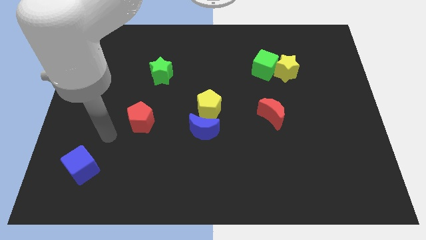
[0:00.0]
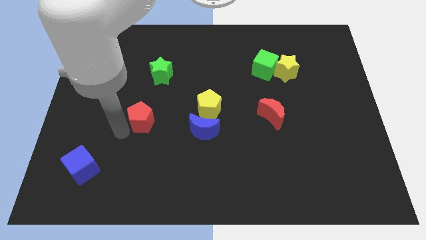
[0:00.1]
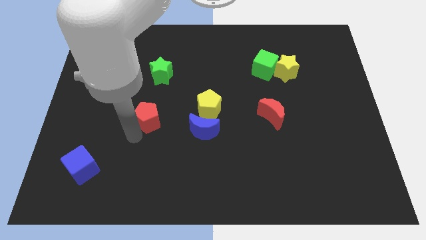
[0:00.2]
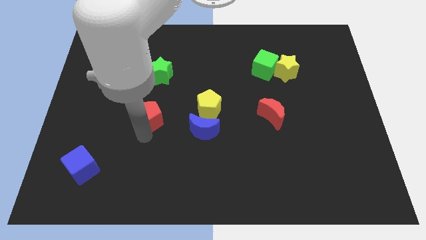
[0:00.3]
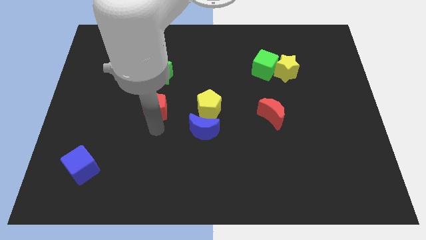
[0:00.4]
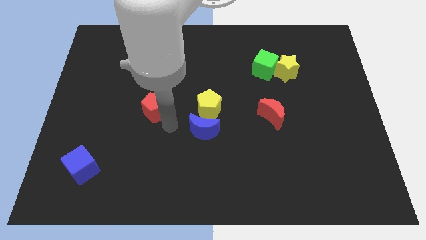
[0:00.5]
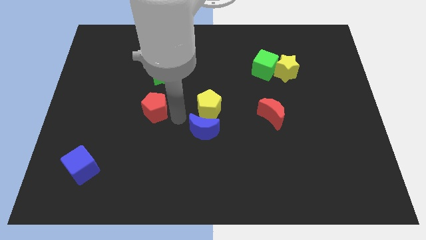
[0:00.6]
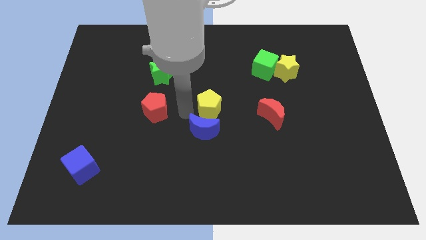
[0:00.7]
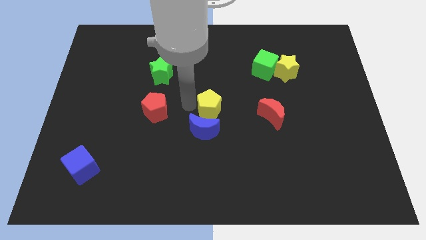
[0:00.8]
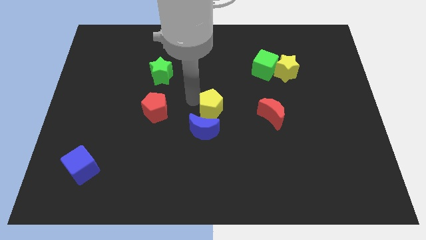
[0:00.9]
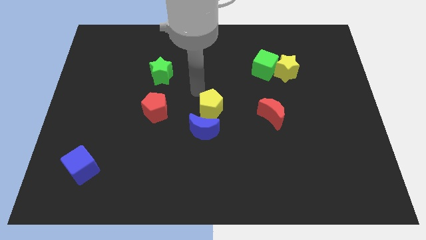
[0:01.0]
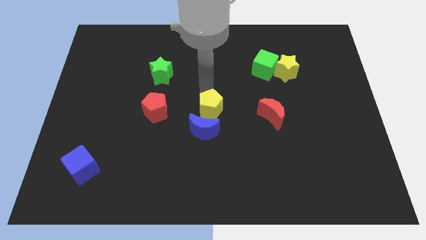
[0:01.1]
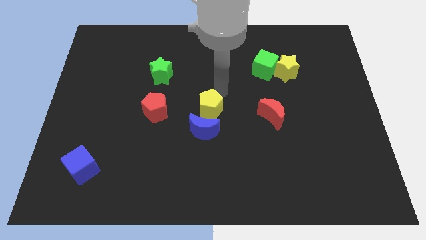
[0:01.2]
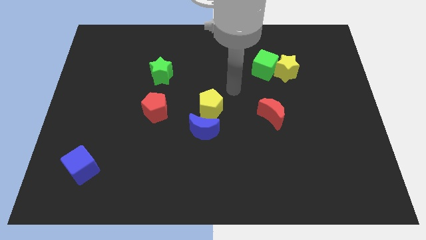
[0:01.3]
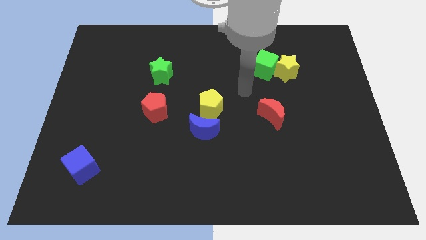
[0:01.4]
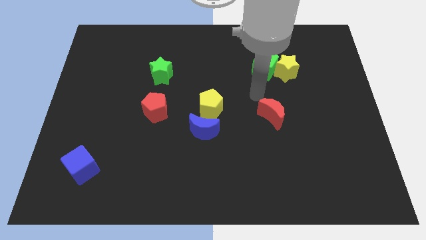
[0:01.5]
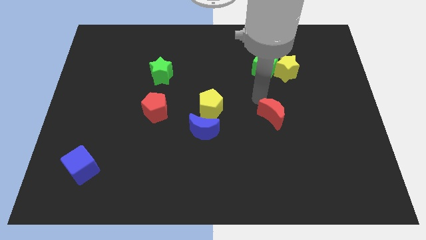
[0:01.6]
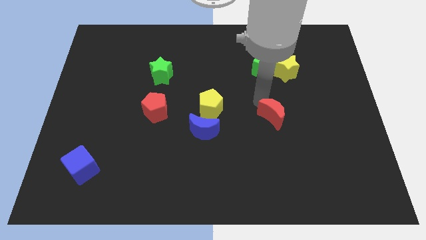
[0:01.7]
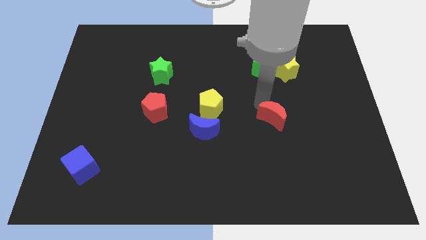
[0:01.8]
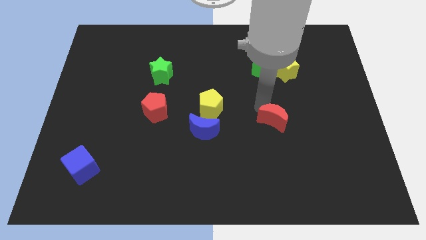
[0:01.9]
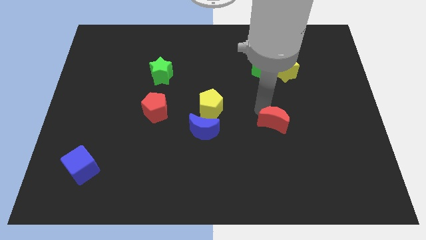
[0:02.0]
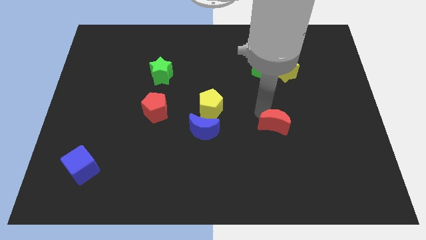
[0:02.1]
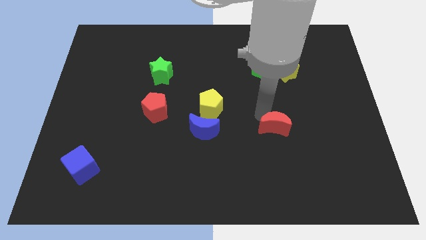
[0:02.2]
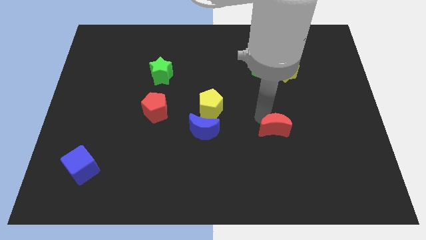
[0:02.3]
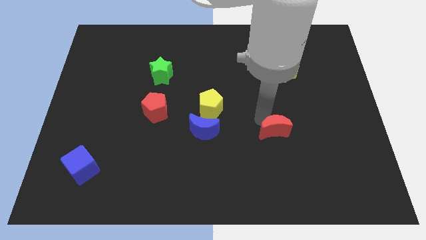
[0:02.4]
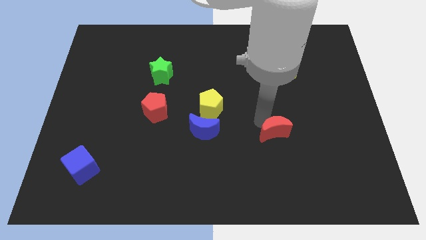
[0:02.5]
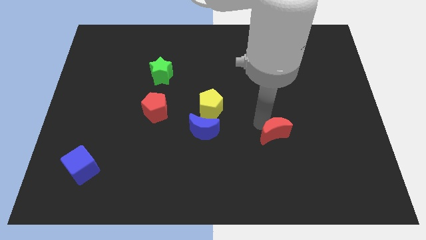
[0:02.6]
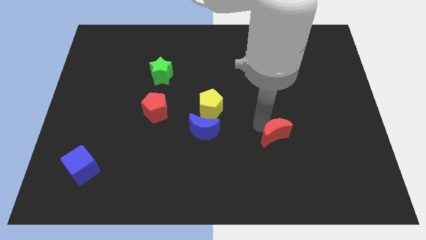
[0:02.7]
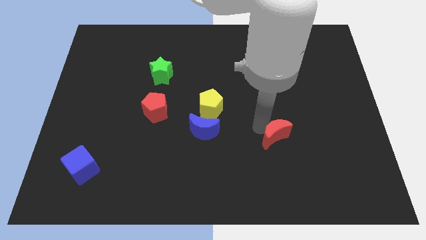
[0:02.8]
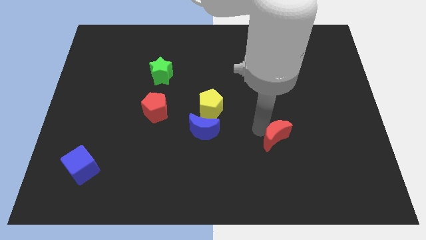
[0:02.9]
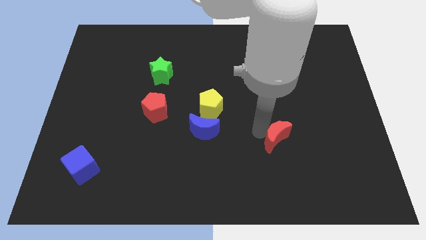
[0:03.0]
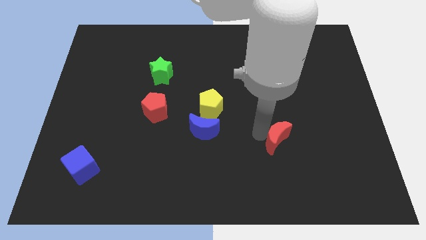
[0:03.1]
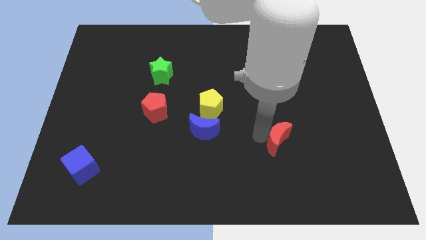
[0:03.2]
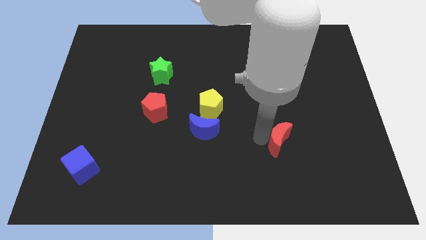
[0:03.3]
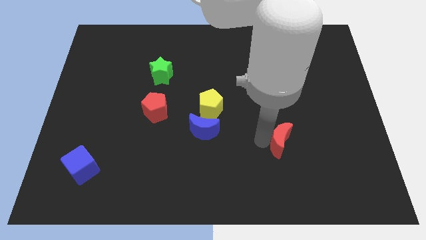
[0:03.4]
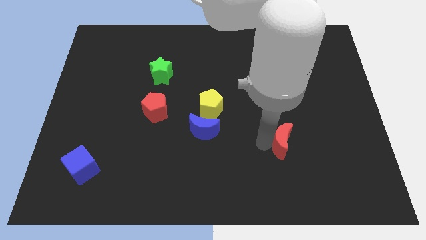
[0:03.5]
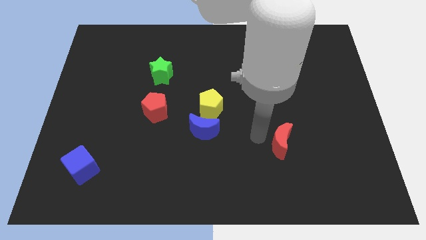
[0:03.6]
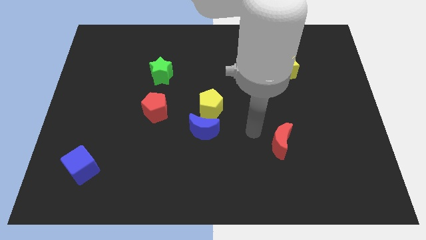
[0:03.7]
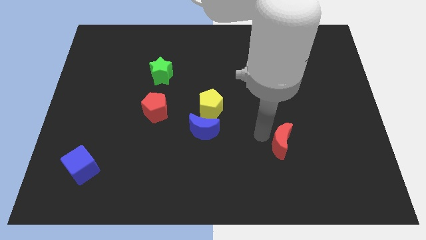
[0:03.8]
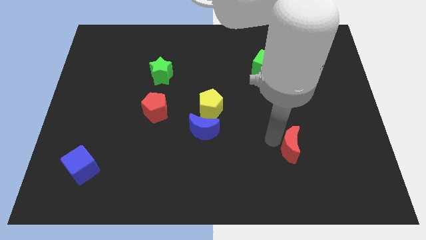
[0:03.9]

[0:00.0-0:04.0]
slide the red moon somewhat down and to the right diagonally

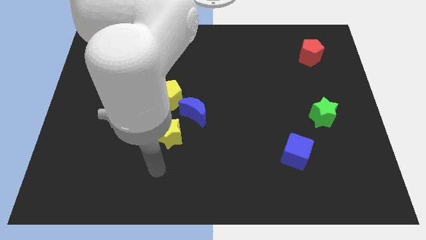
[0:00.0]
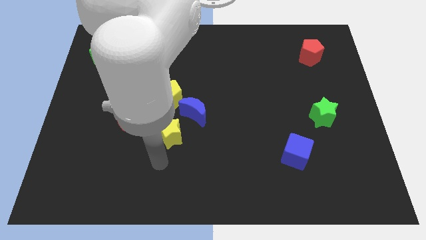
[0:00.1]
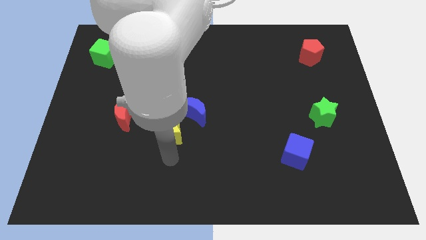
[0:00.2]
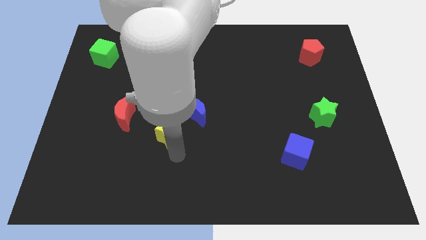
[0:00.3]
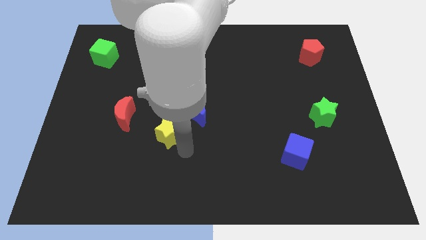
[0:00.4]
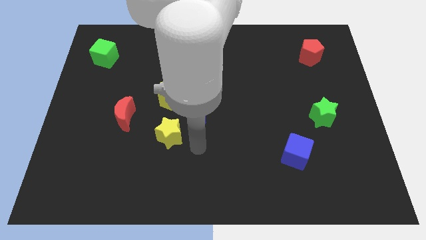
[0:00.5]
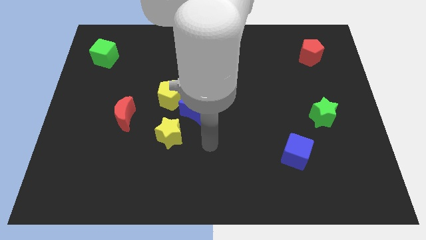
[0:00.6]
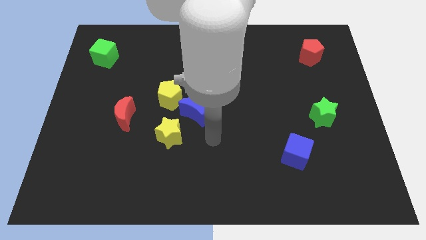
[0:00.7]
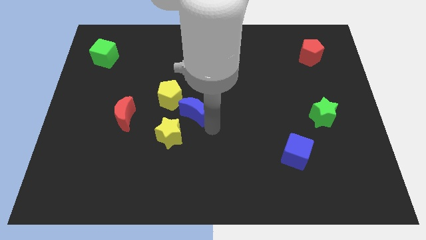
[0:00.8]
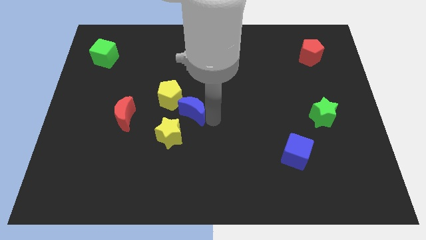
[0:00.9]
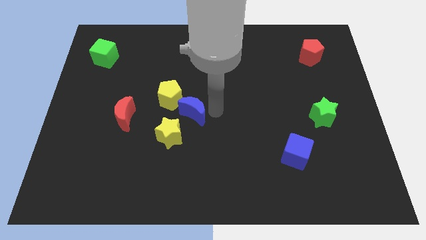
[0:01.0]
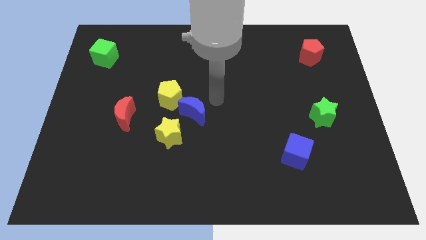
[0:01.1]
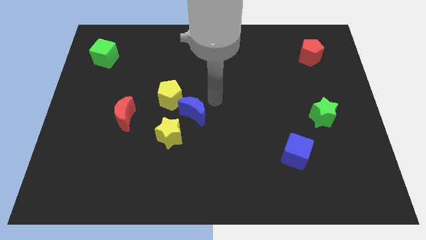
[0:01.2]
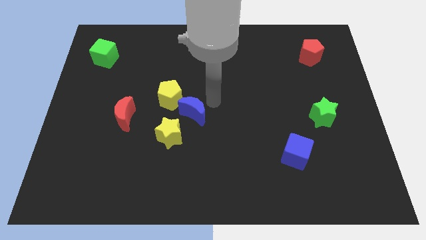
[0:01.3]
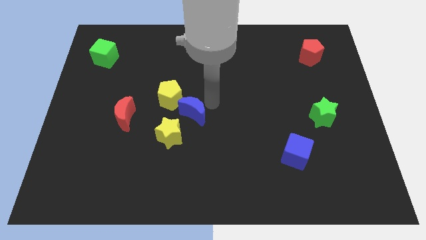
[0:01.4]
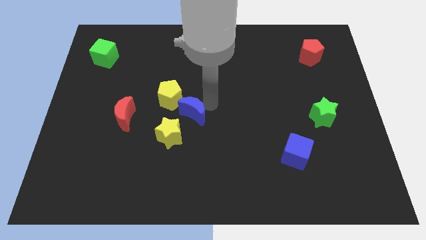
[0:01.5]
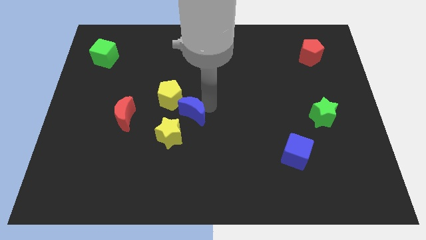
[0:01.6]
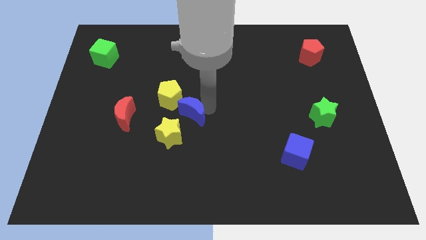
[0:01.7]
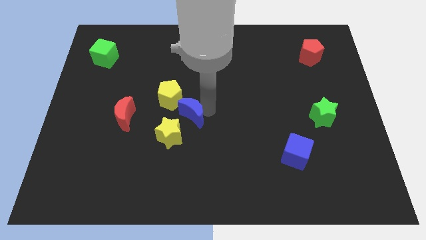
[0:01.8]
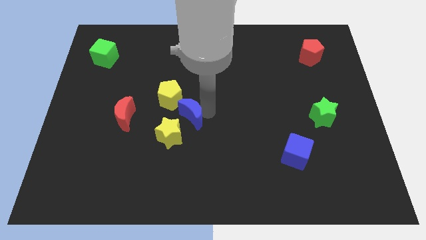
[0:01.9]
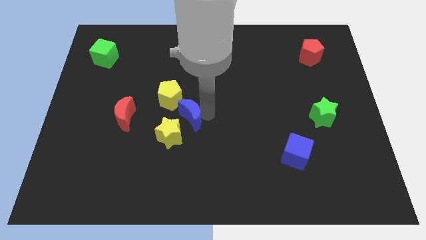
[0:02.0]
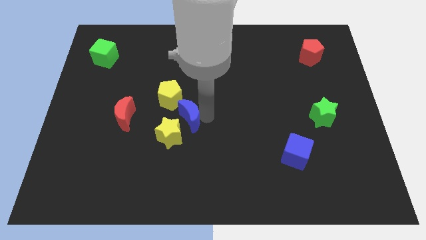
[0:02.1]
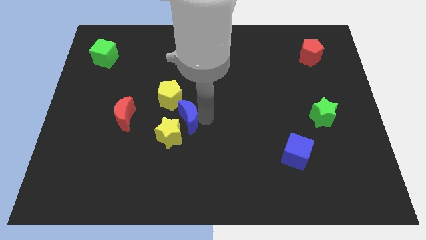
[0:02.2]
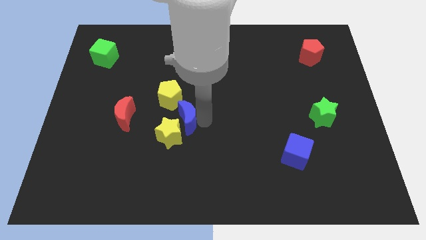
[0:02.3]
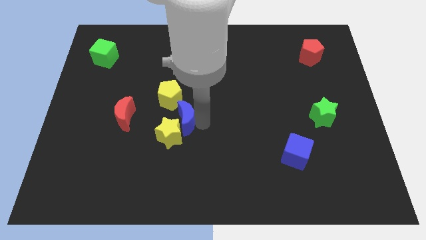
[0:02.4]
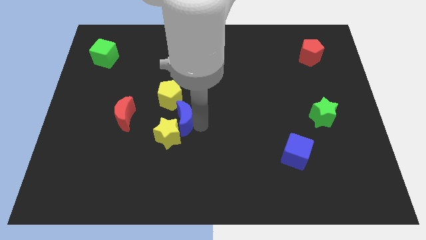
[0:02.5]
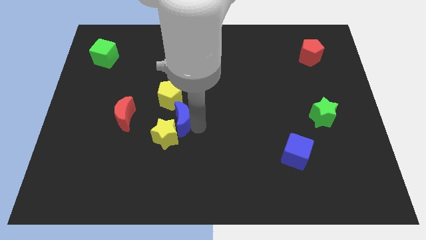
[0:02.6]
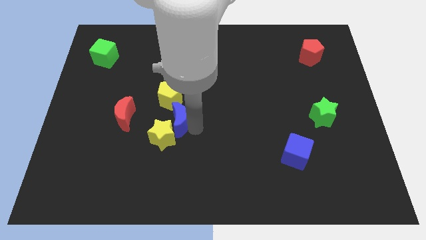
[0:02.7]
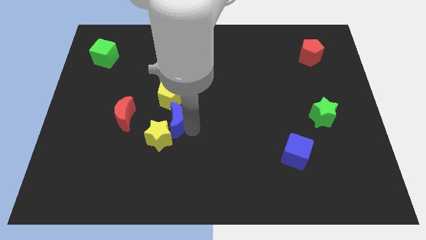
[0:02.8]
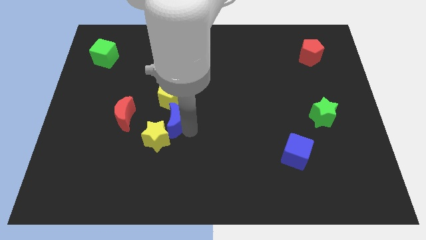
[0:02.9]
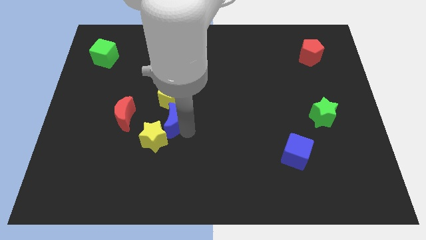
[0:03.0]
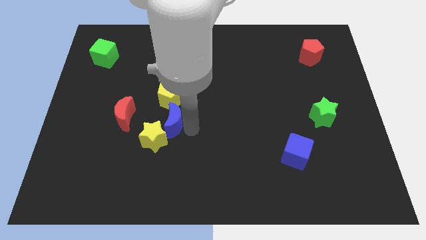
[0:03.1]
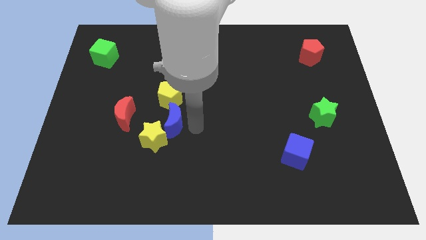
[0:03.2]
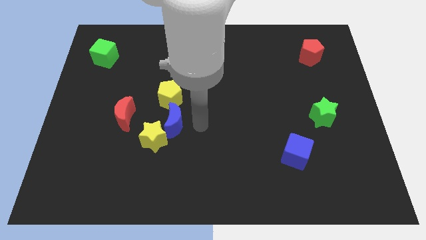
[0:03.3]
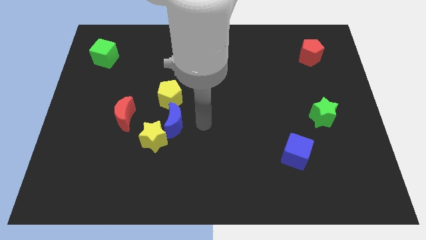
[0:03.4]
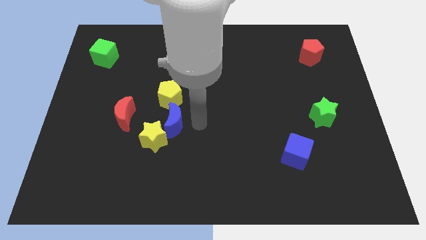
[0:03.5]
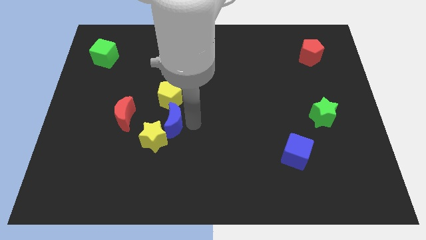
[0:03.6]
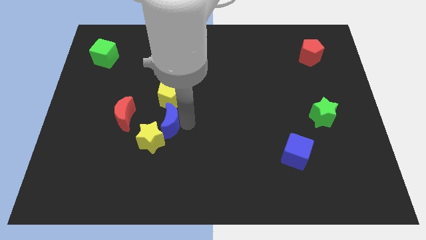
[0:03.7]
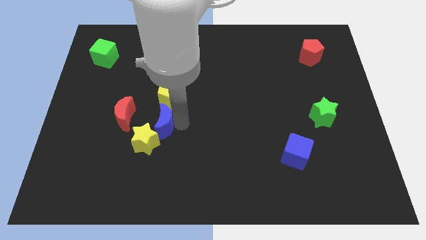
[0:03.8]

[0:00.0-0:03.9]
slightly push the blue moon diagonally down and left

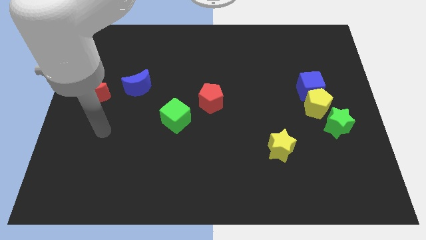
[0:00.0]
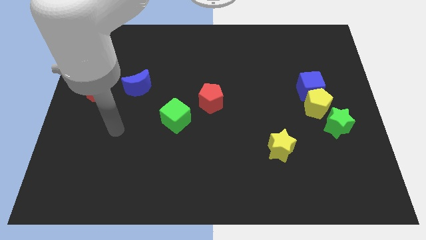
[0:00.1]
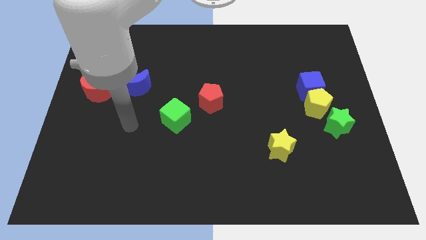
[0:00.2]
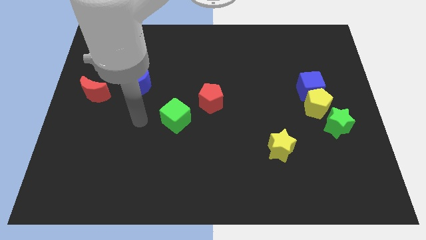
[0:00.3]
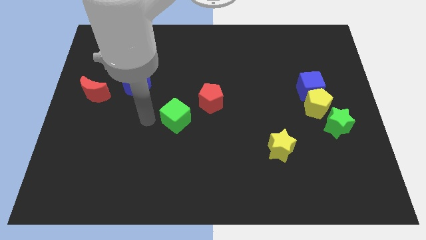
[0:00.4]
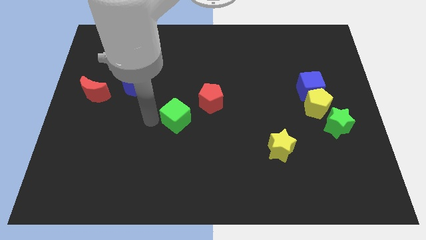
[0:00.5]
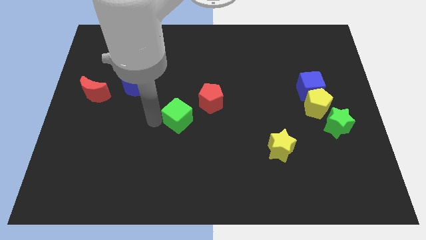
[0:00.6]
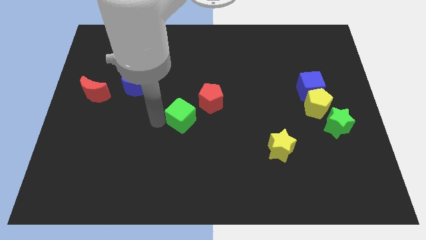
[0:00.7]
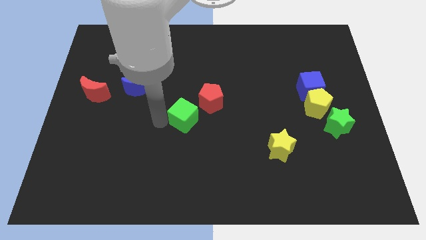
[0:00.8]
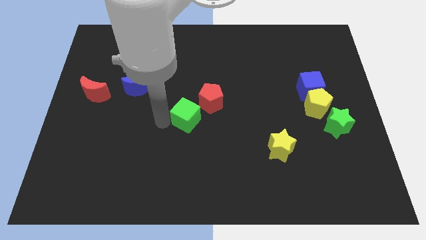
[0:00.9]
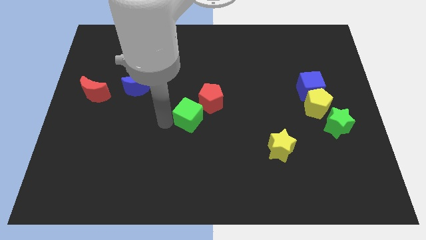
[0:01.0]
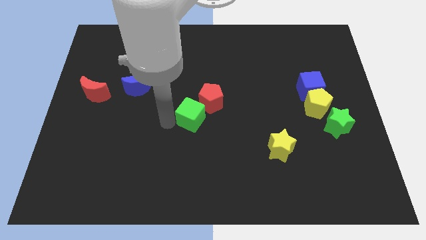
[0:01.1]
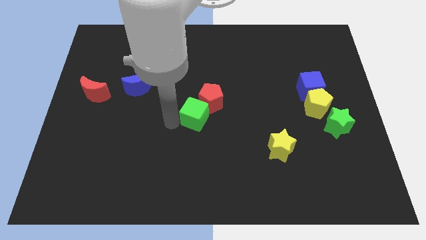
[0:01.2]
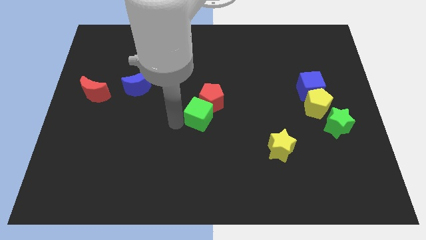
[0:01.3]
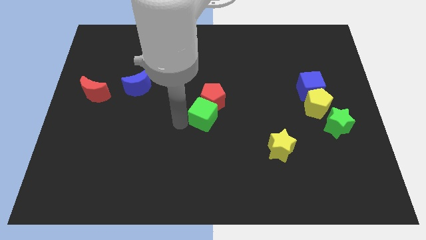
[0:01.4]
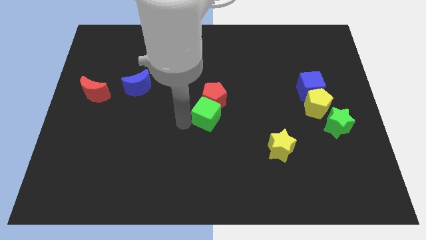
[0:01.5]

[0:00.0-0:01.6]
slightly move the green cube right
